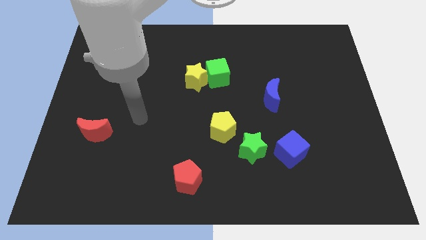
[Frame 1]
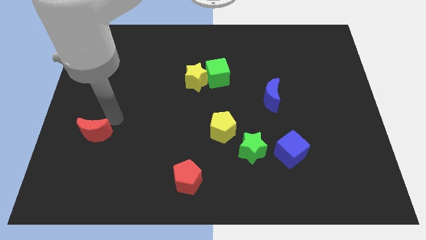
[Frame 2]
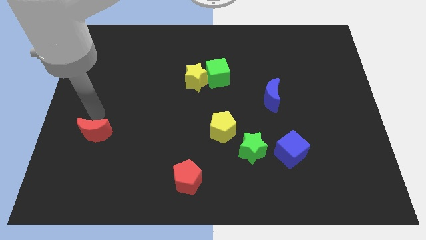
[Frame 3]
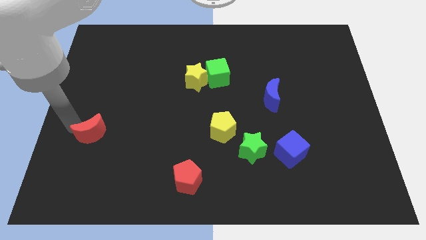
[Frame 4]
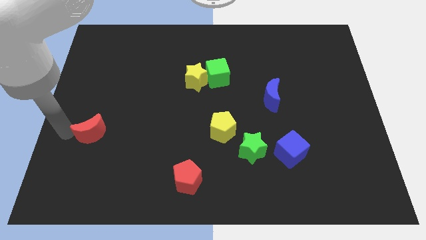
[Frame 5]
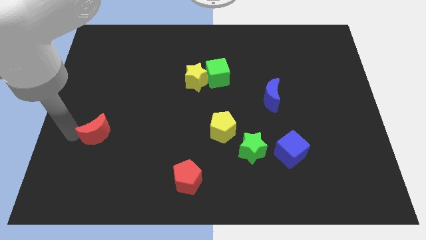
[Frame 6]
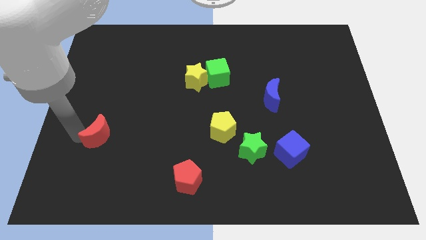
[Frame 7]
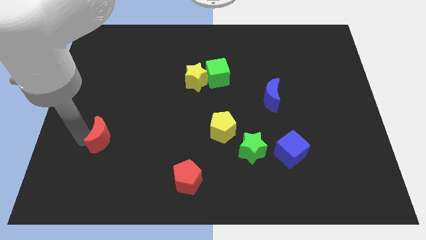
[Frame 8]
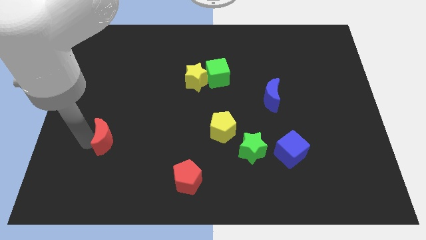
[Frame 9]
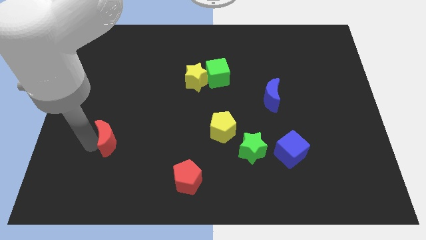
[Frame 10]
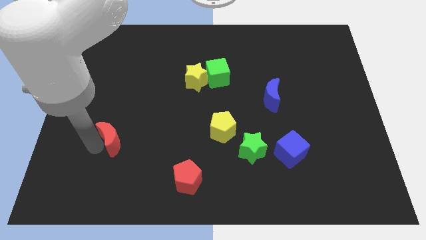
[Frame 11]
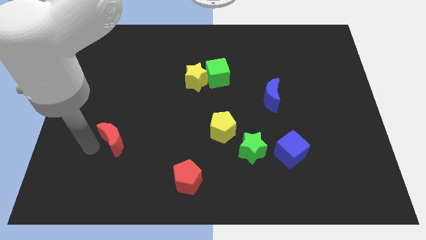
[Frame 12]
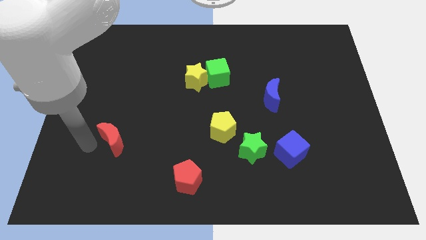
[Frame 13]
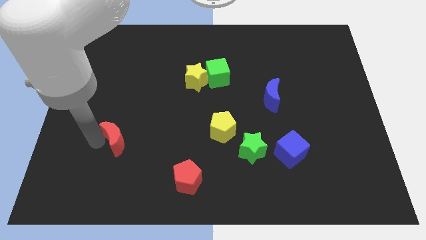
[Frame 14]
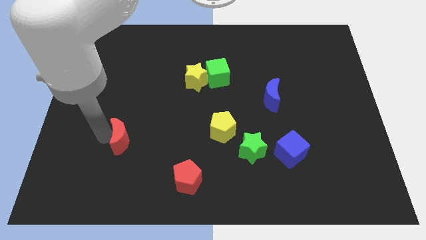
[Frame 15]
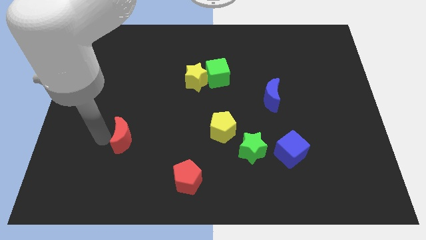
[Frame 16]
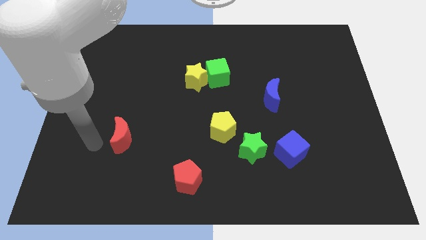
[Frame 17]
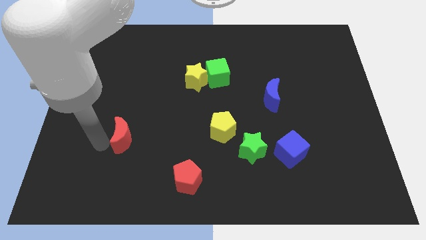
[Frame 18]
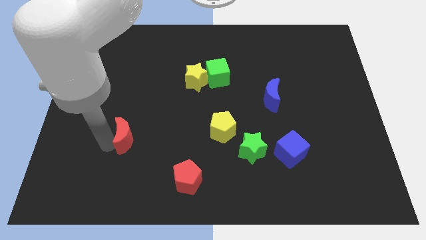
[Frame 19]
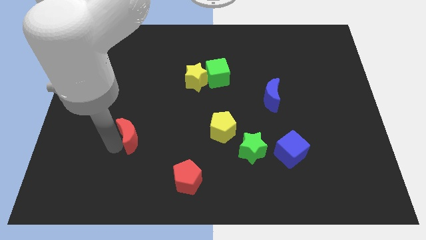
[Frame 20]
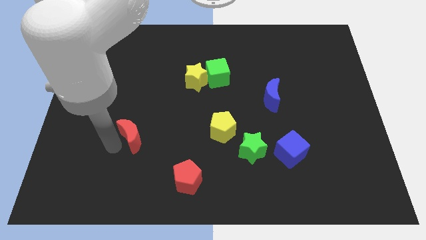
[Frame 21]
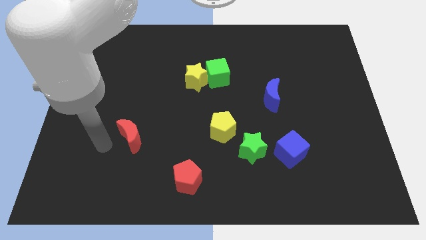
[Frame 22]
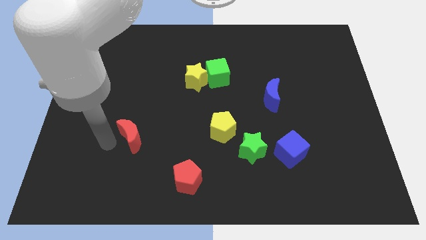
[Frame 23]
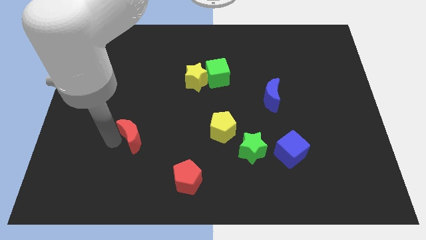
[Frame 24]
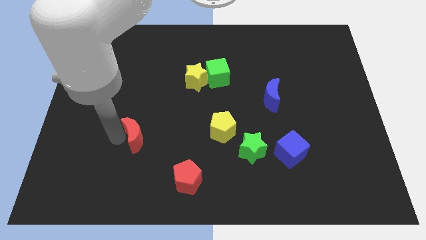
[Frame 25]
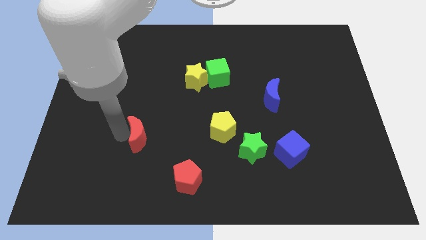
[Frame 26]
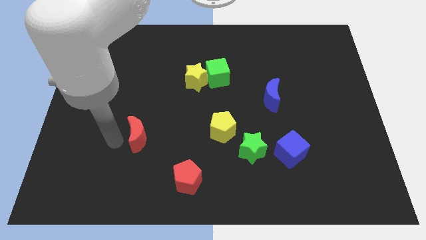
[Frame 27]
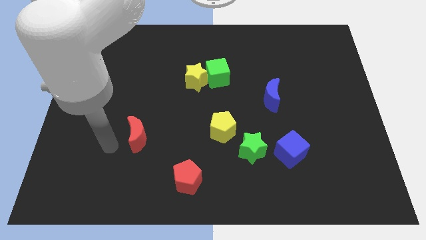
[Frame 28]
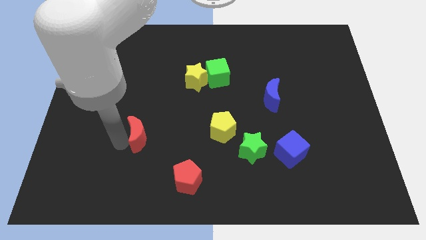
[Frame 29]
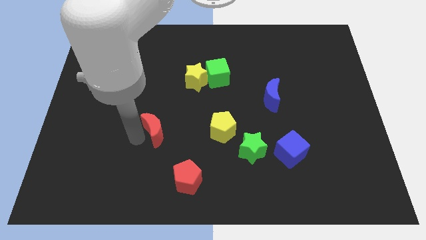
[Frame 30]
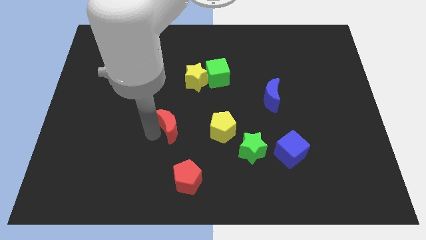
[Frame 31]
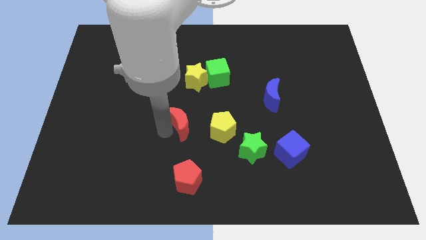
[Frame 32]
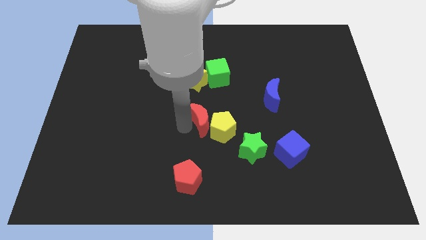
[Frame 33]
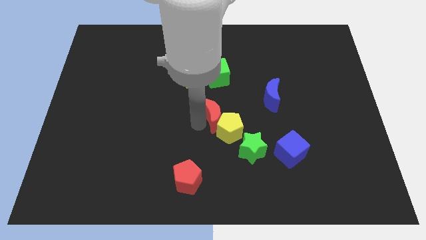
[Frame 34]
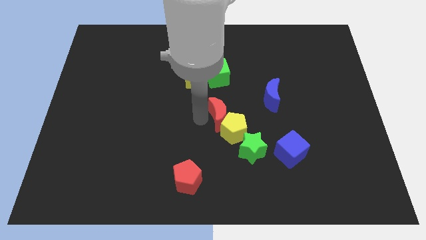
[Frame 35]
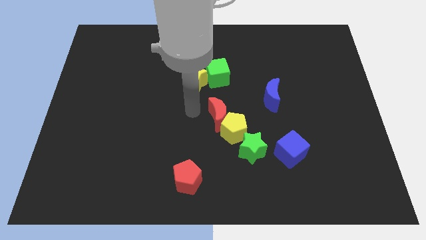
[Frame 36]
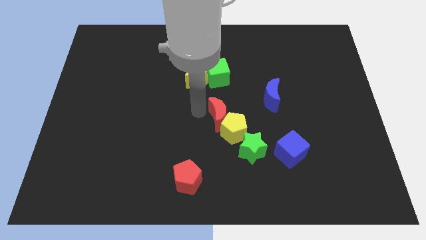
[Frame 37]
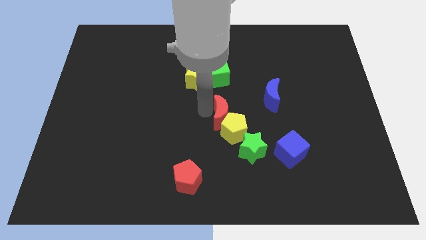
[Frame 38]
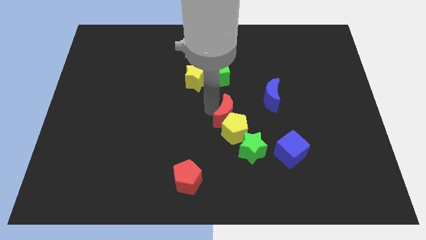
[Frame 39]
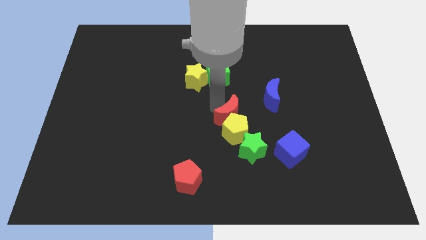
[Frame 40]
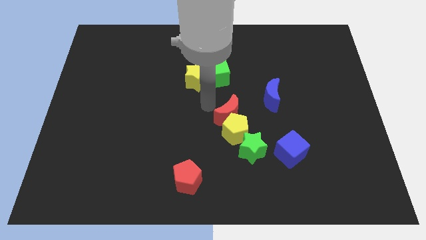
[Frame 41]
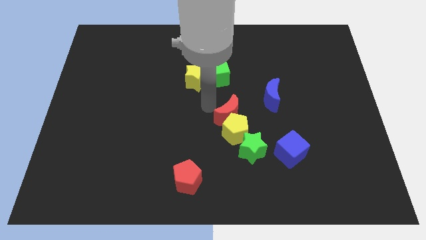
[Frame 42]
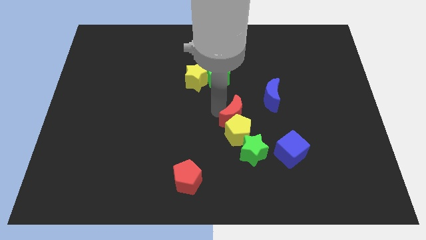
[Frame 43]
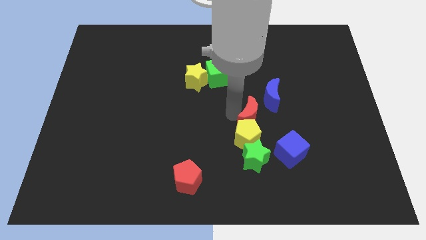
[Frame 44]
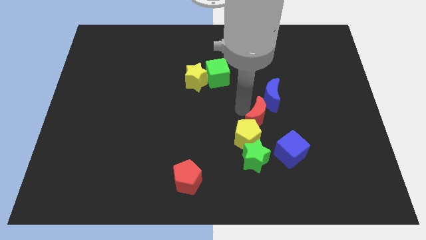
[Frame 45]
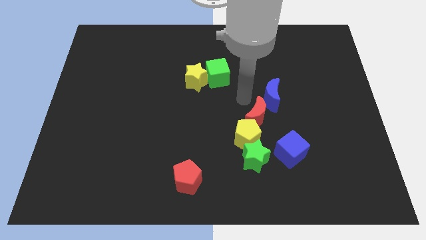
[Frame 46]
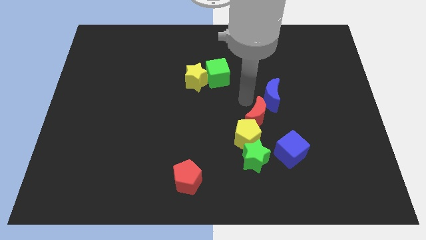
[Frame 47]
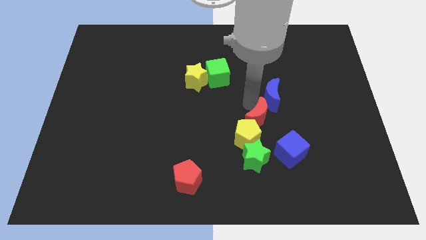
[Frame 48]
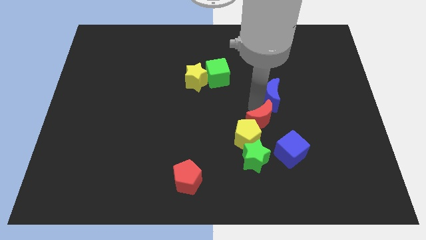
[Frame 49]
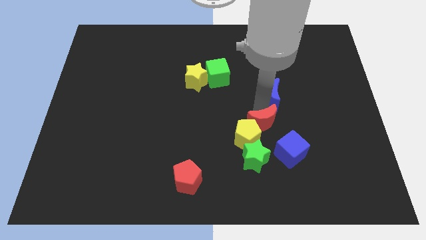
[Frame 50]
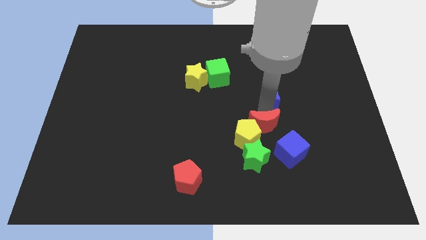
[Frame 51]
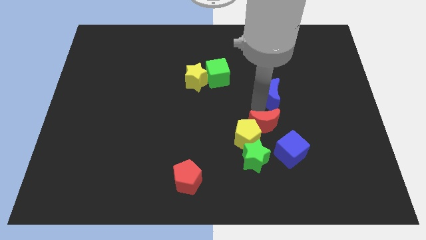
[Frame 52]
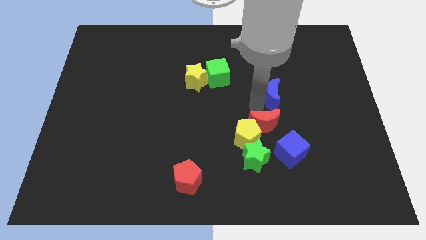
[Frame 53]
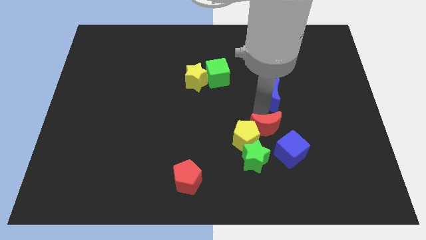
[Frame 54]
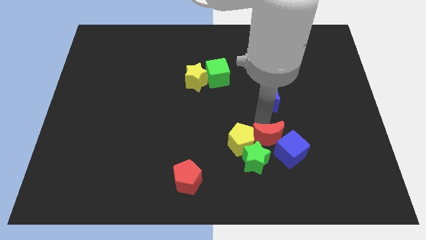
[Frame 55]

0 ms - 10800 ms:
slide the red moon to the blue cube

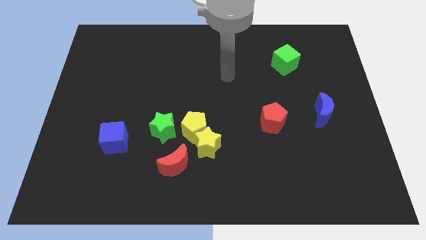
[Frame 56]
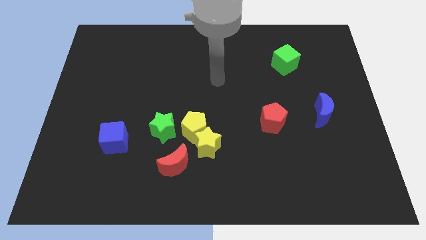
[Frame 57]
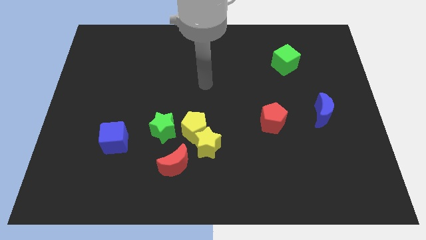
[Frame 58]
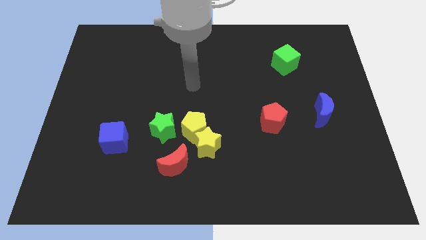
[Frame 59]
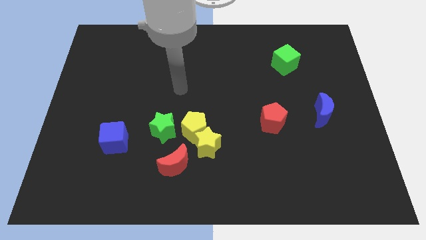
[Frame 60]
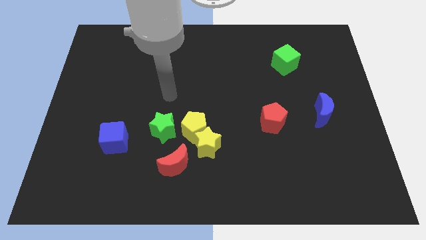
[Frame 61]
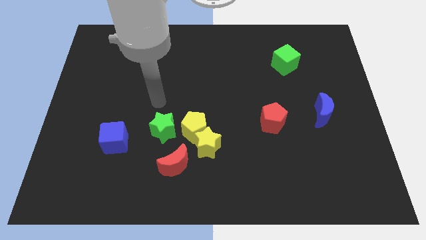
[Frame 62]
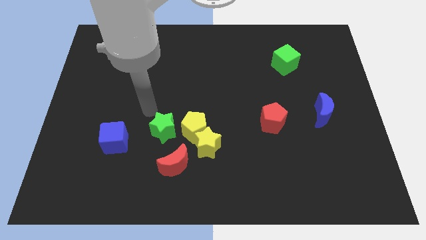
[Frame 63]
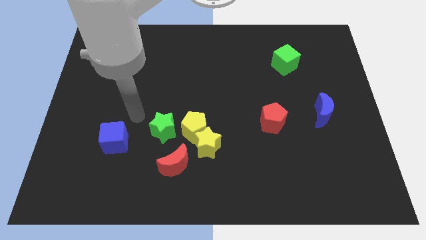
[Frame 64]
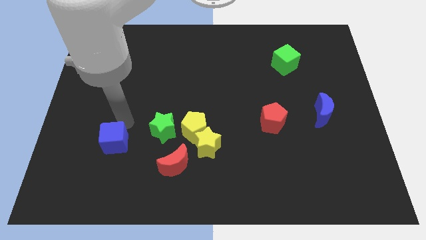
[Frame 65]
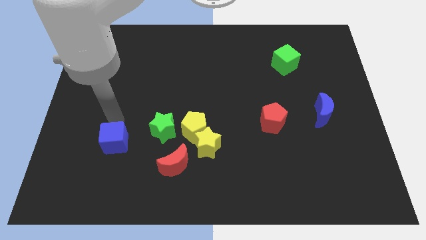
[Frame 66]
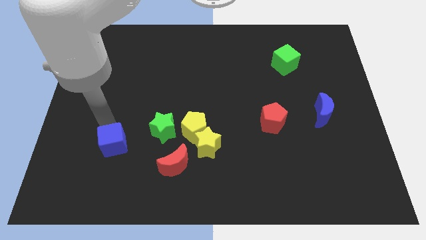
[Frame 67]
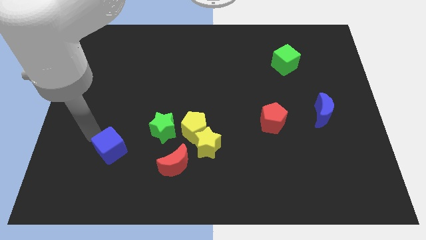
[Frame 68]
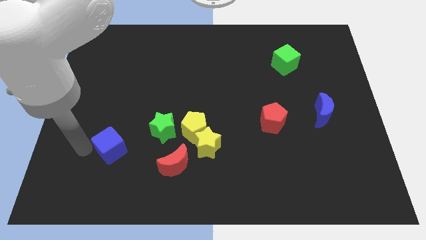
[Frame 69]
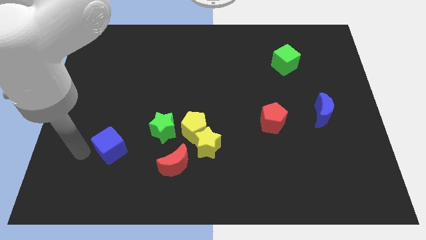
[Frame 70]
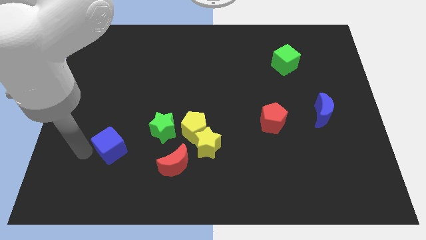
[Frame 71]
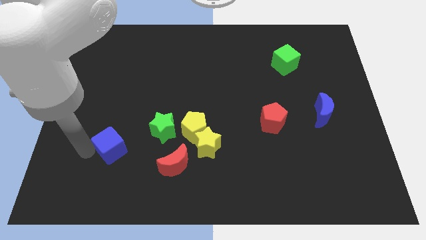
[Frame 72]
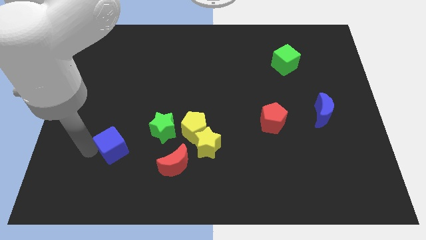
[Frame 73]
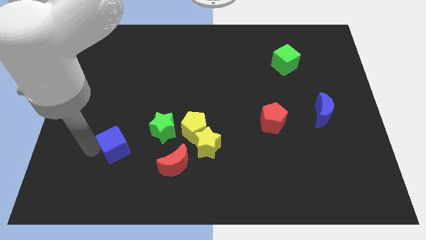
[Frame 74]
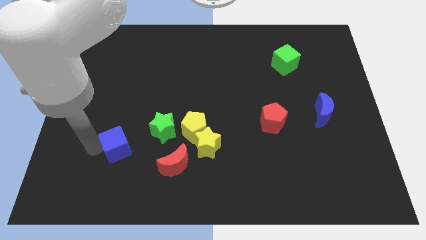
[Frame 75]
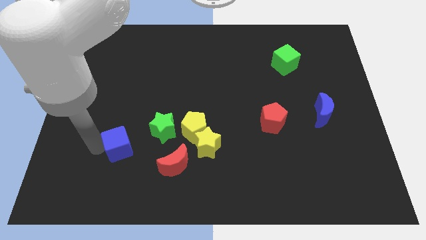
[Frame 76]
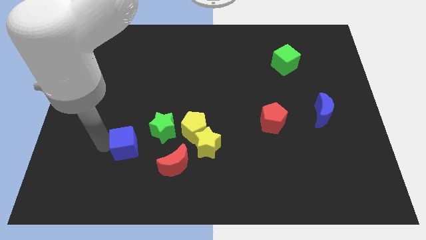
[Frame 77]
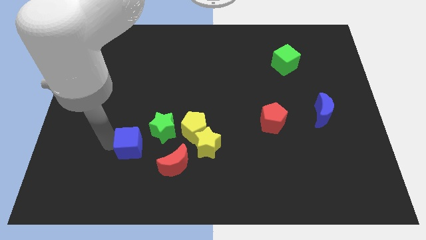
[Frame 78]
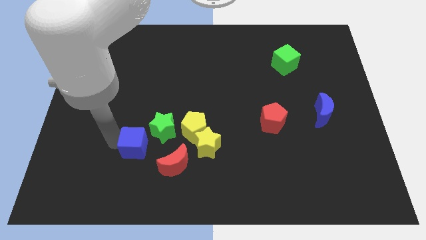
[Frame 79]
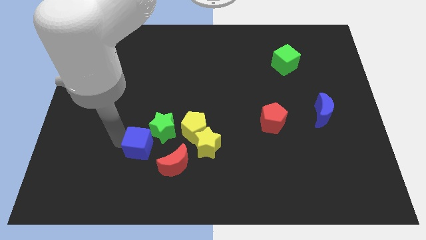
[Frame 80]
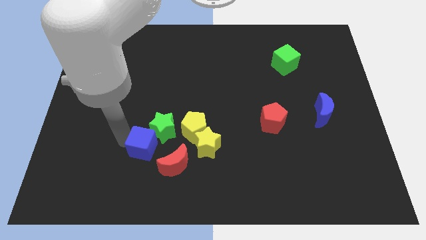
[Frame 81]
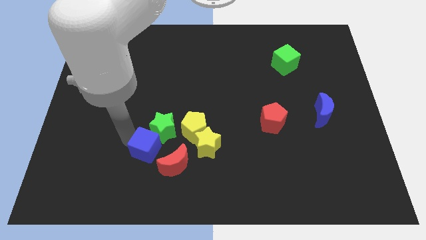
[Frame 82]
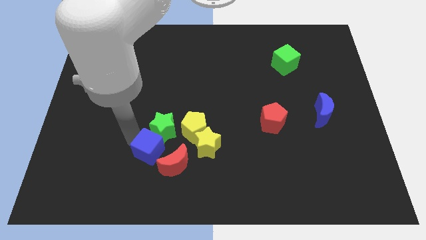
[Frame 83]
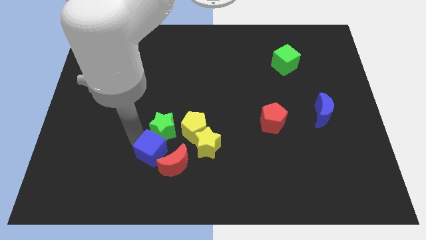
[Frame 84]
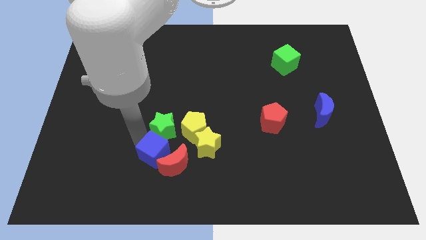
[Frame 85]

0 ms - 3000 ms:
push the blue cube to the red moon
